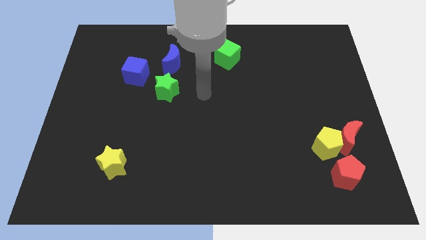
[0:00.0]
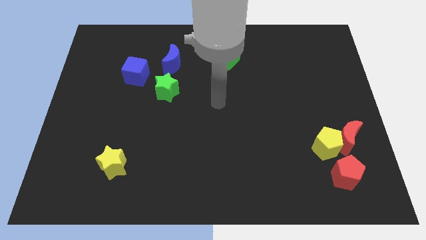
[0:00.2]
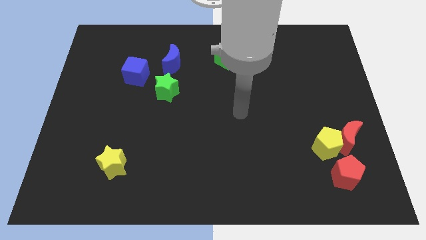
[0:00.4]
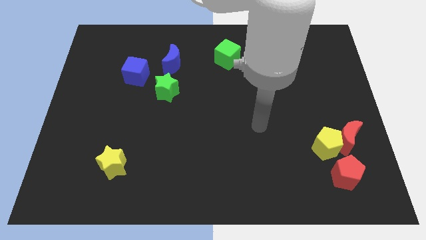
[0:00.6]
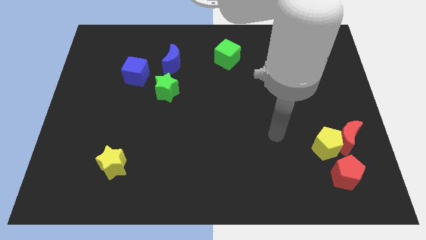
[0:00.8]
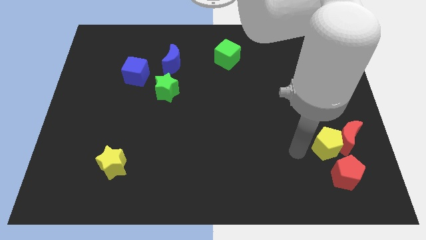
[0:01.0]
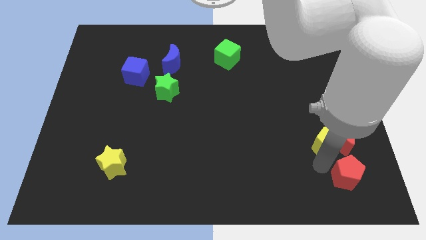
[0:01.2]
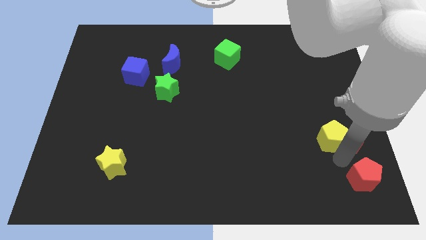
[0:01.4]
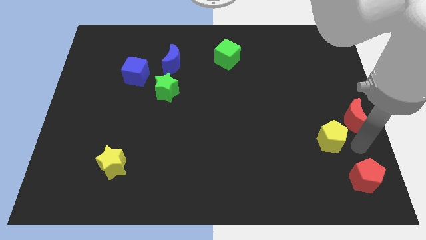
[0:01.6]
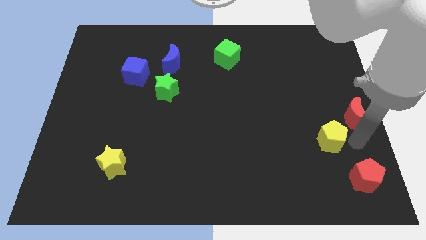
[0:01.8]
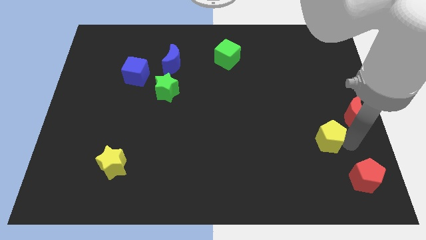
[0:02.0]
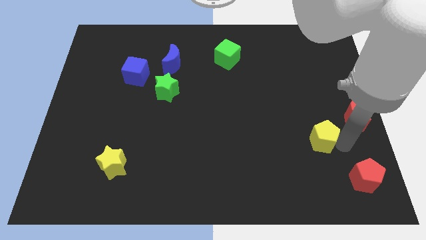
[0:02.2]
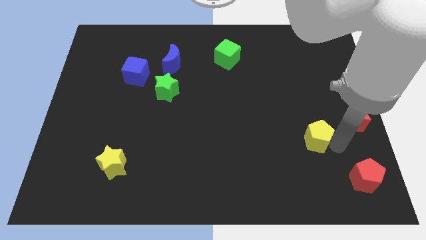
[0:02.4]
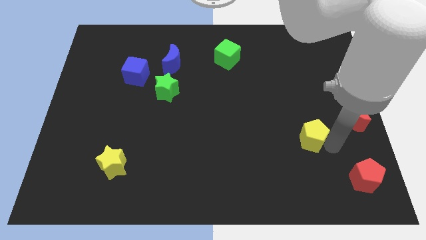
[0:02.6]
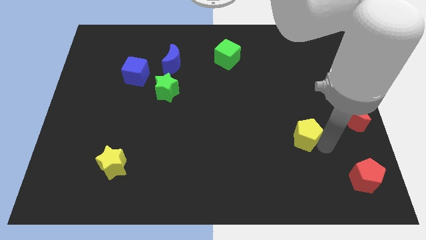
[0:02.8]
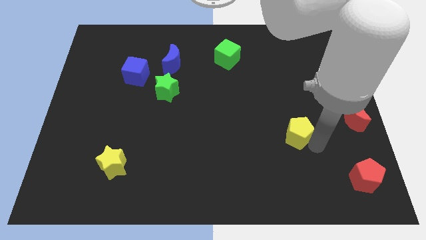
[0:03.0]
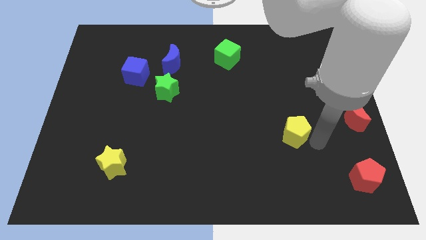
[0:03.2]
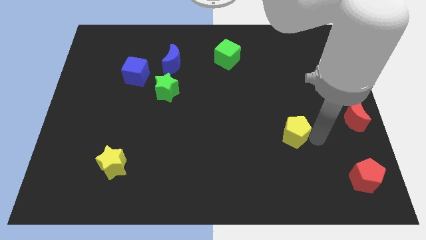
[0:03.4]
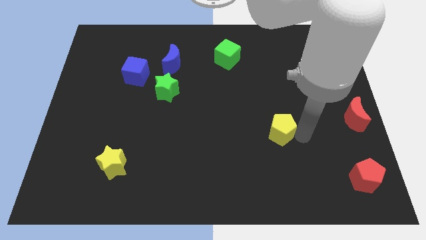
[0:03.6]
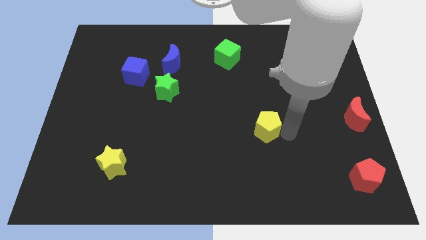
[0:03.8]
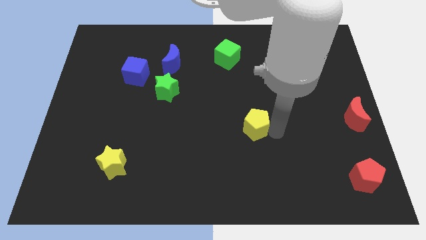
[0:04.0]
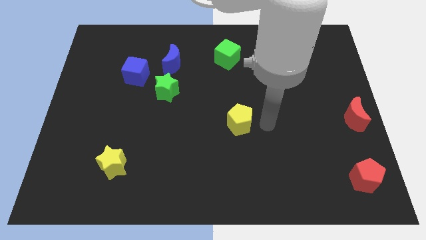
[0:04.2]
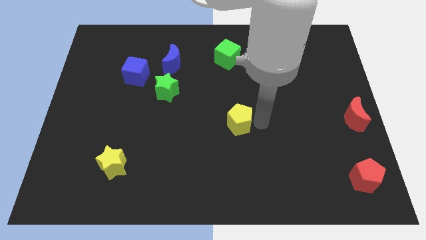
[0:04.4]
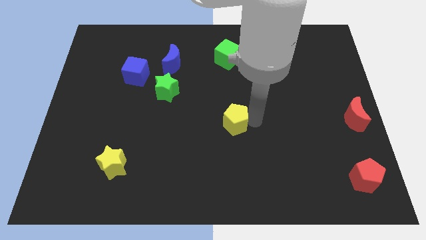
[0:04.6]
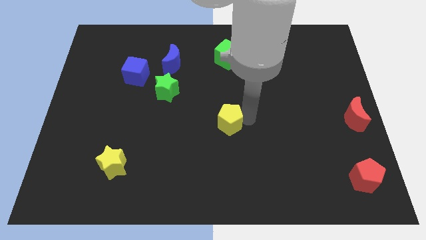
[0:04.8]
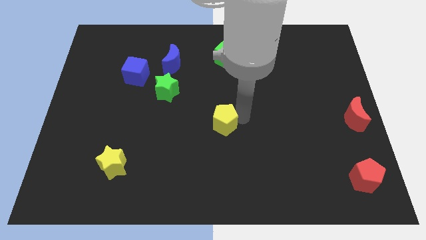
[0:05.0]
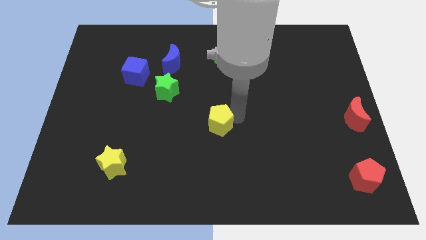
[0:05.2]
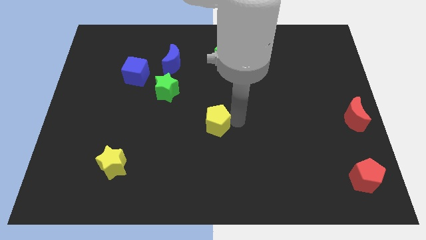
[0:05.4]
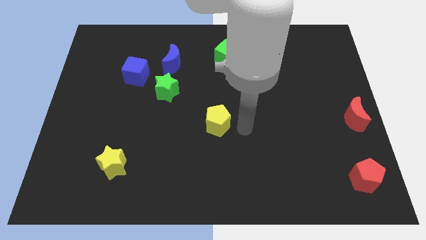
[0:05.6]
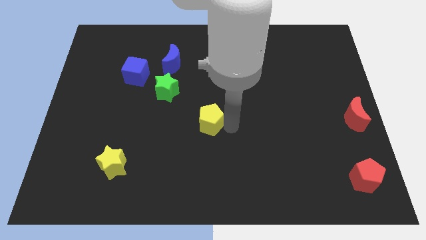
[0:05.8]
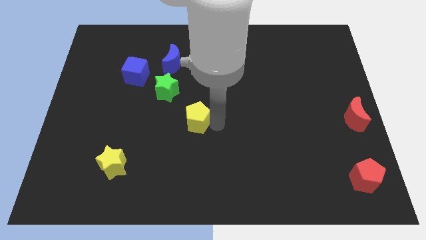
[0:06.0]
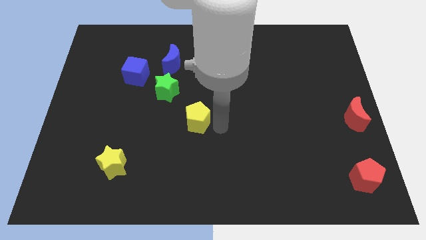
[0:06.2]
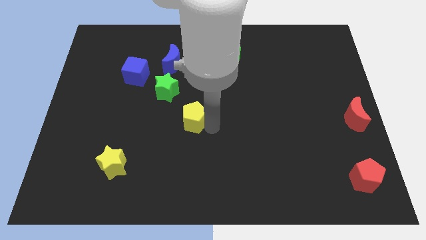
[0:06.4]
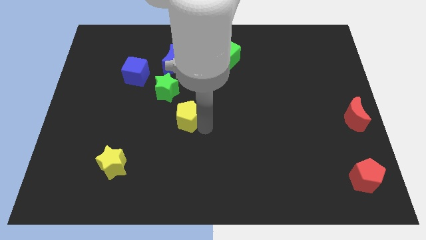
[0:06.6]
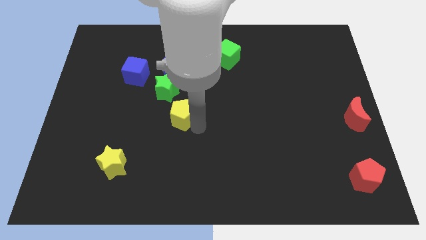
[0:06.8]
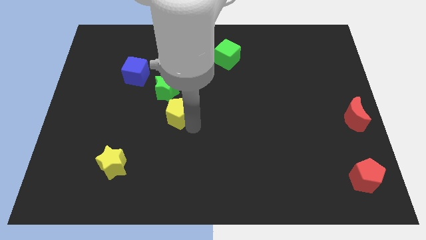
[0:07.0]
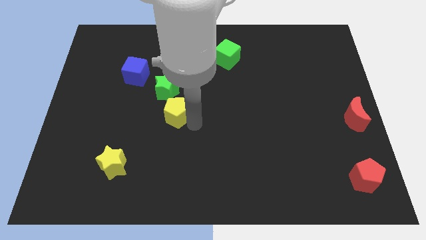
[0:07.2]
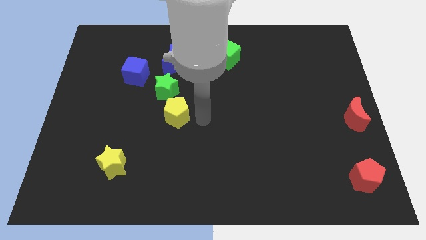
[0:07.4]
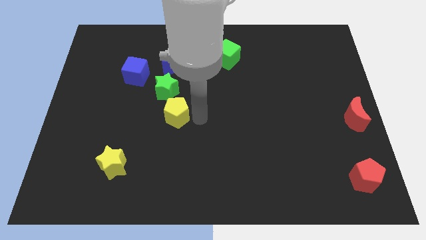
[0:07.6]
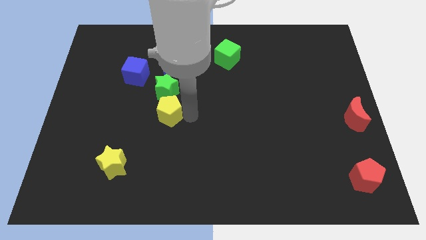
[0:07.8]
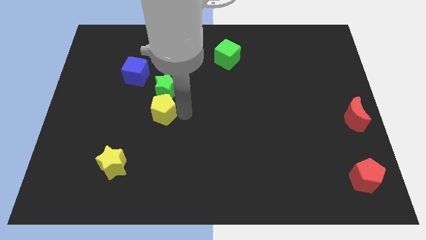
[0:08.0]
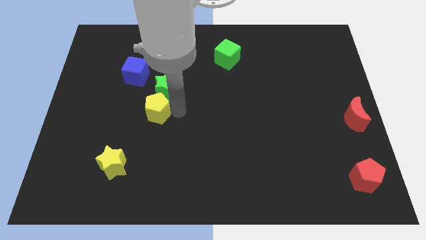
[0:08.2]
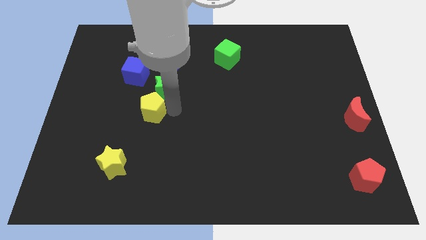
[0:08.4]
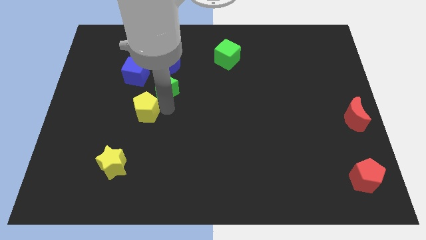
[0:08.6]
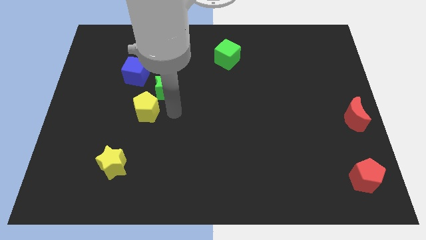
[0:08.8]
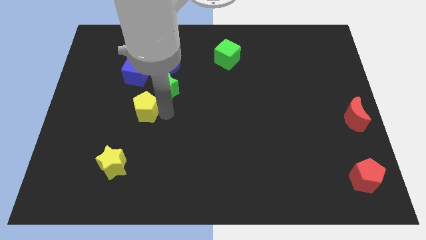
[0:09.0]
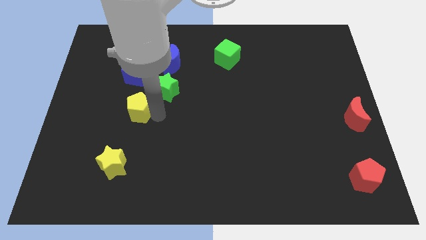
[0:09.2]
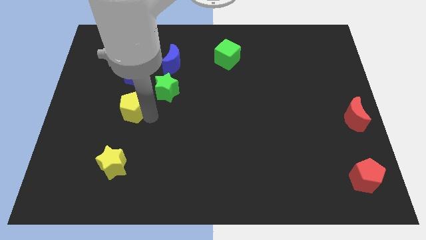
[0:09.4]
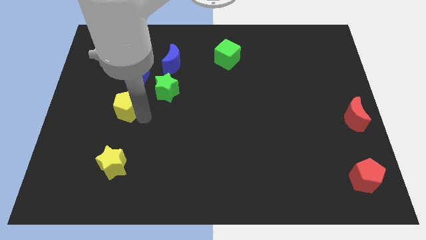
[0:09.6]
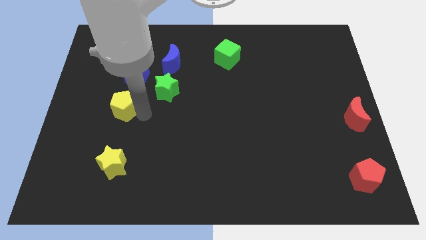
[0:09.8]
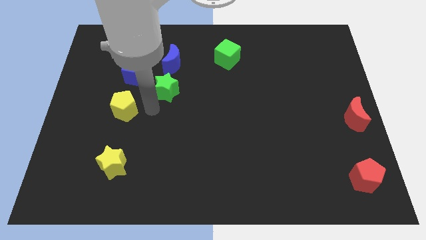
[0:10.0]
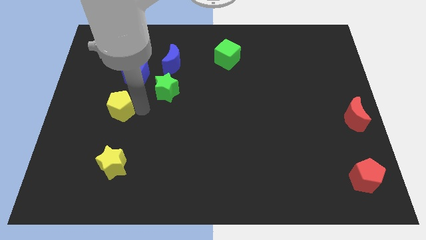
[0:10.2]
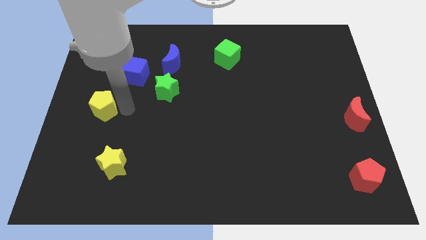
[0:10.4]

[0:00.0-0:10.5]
put the yellow pentagon to the left side

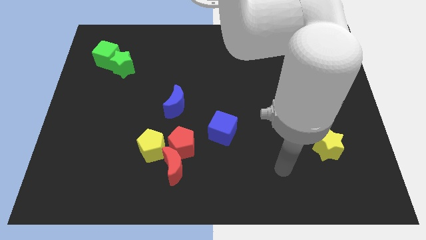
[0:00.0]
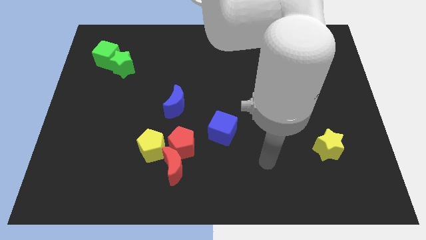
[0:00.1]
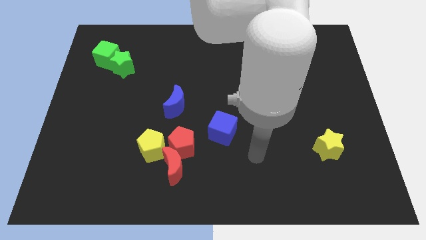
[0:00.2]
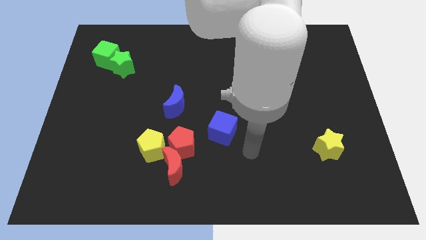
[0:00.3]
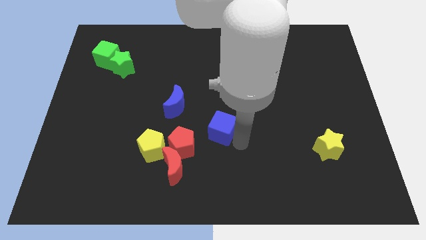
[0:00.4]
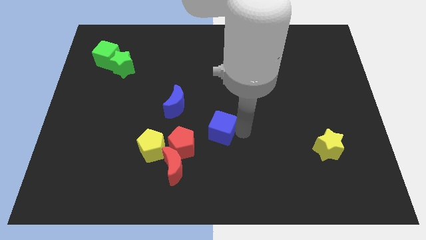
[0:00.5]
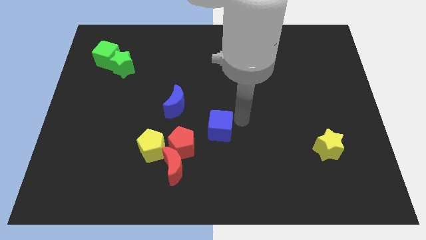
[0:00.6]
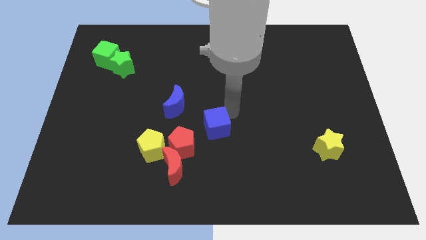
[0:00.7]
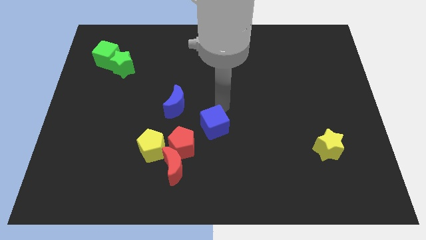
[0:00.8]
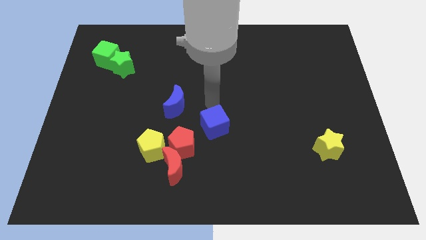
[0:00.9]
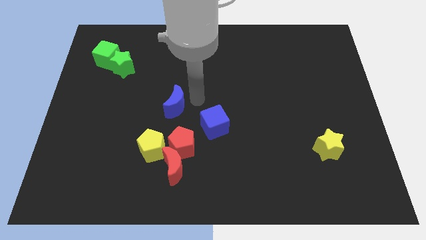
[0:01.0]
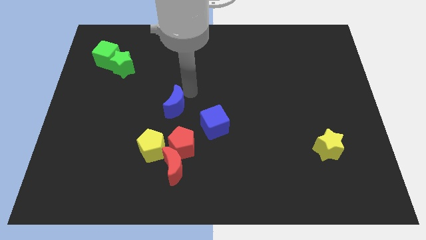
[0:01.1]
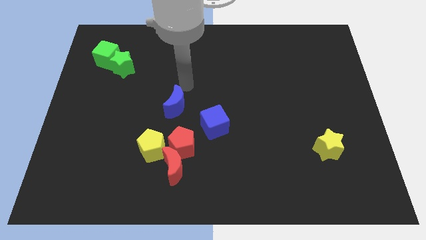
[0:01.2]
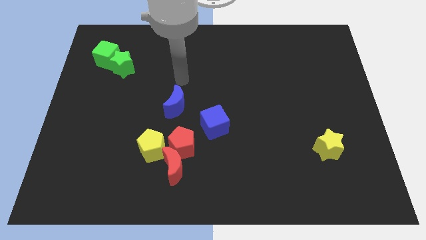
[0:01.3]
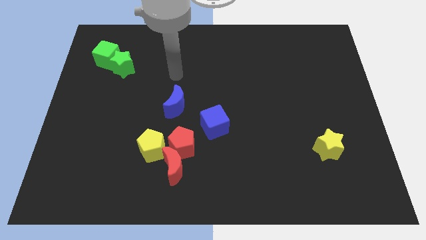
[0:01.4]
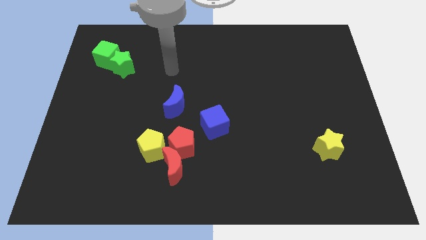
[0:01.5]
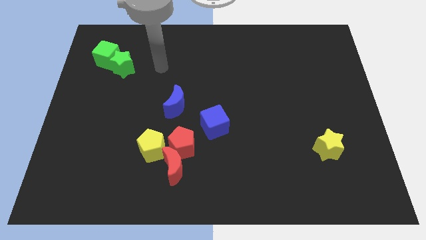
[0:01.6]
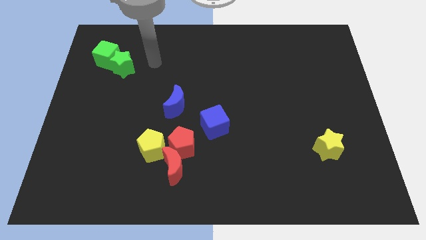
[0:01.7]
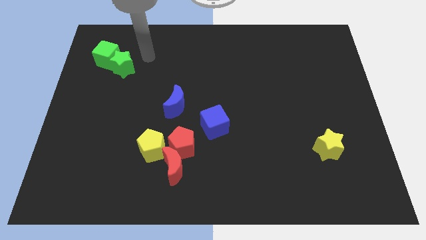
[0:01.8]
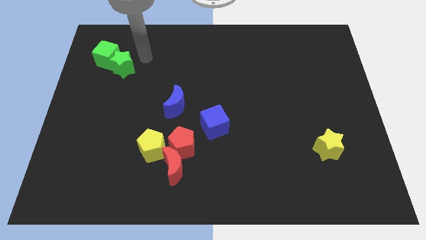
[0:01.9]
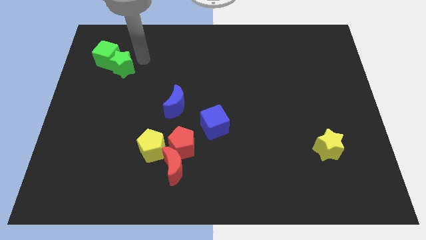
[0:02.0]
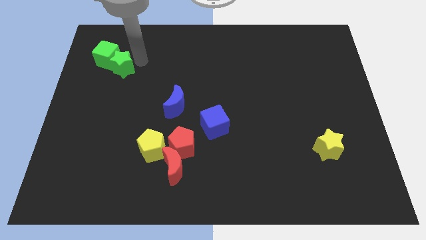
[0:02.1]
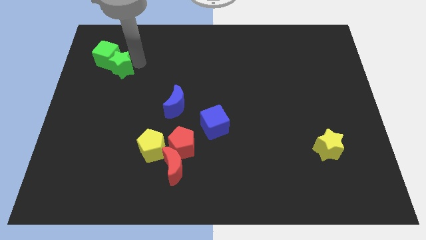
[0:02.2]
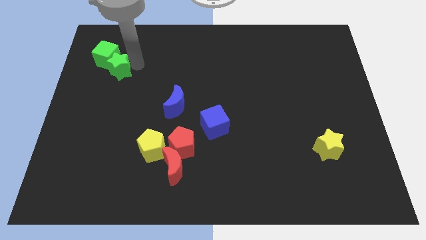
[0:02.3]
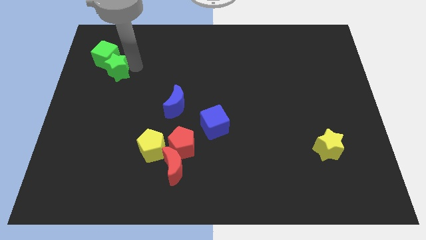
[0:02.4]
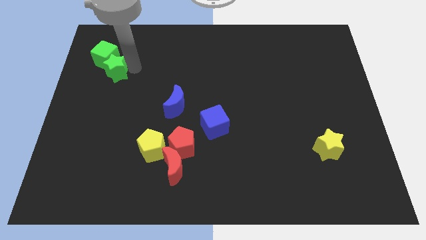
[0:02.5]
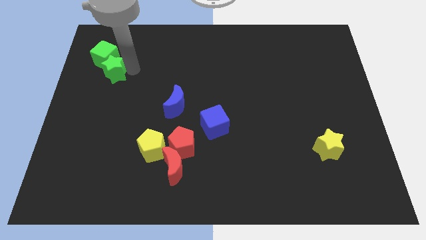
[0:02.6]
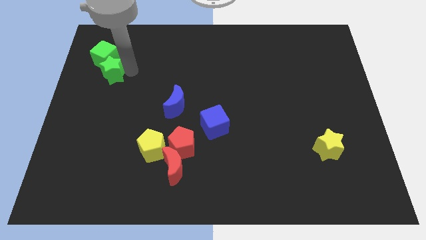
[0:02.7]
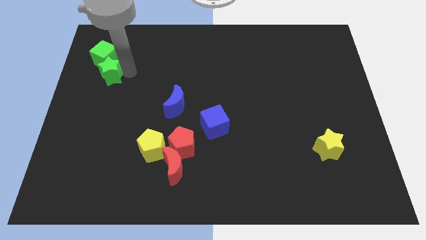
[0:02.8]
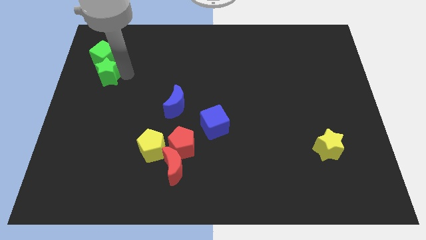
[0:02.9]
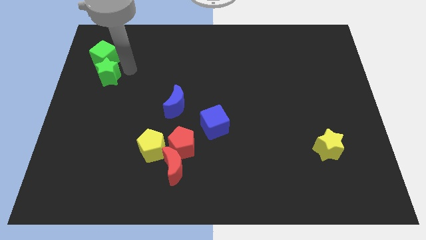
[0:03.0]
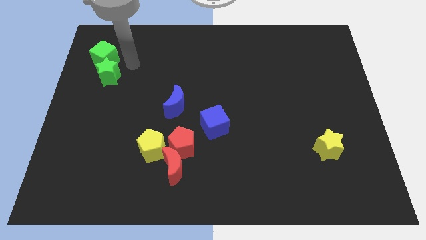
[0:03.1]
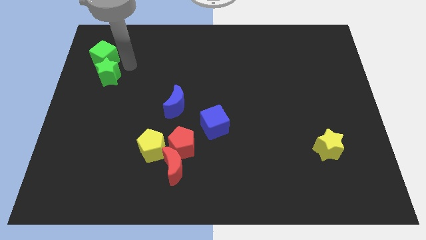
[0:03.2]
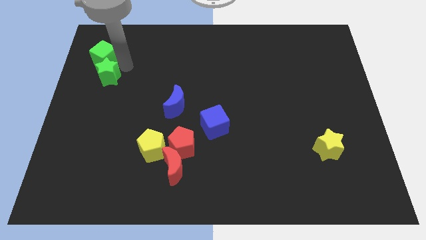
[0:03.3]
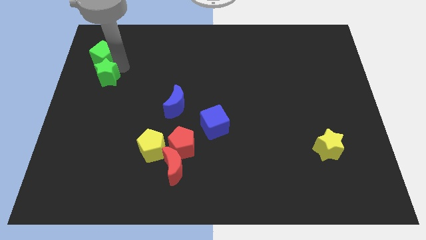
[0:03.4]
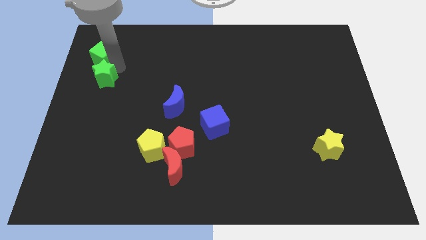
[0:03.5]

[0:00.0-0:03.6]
move the green star to the left side
